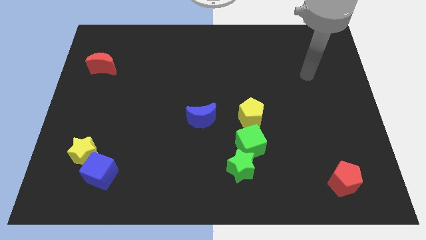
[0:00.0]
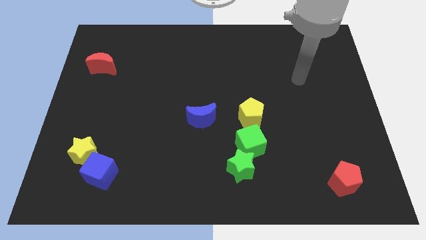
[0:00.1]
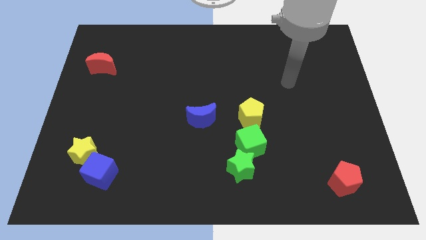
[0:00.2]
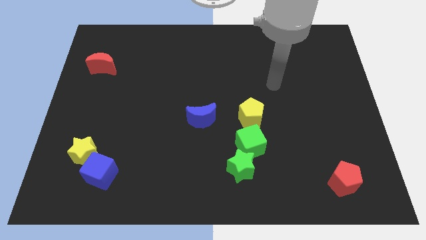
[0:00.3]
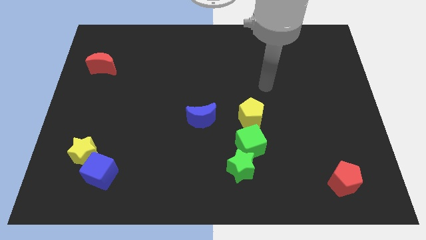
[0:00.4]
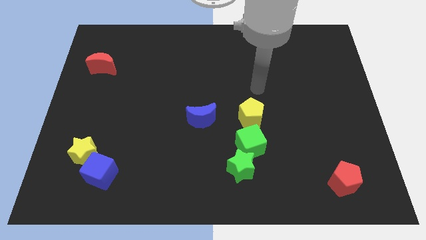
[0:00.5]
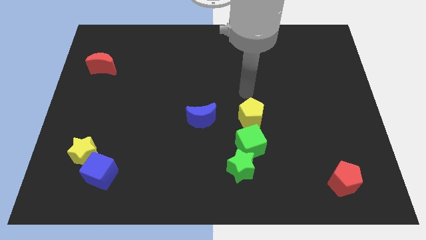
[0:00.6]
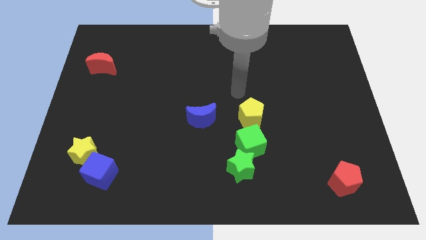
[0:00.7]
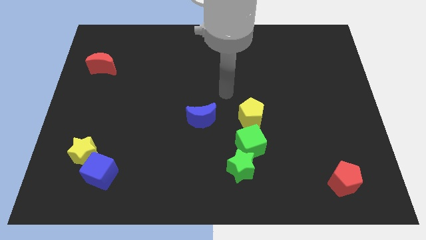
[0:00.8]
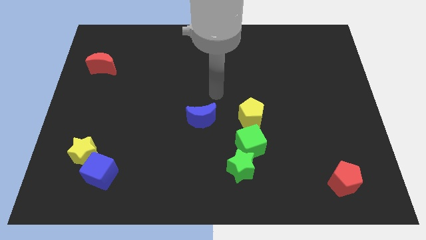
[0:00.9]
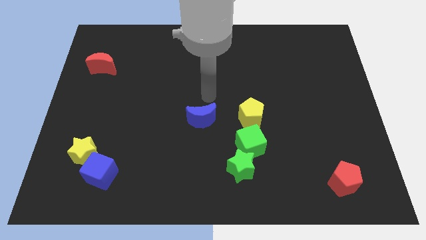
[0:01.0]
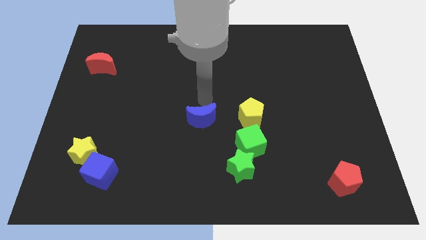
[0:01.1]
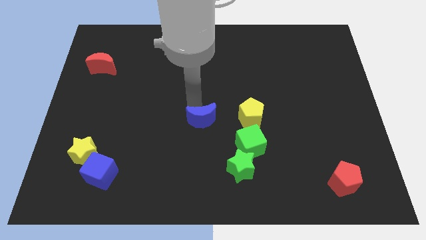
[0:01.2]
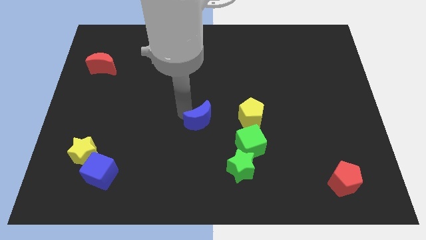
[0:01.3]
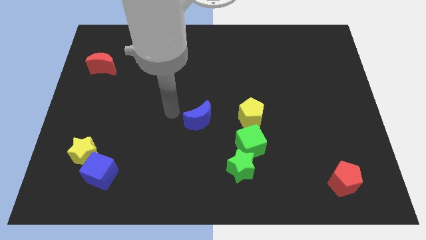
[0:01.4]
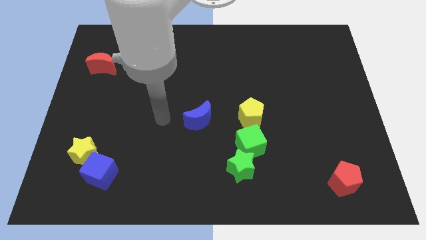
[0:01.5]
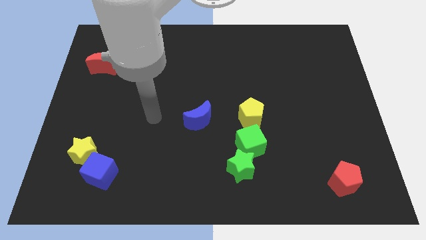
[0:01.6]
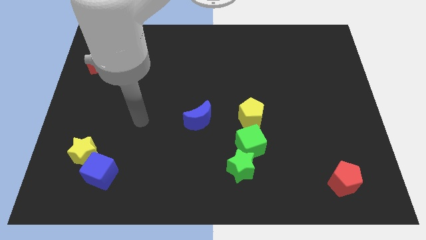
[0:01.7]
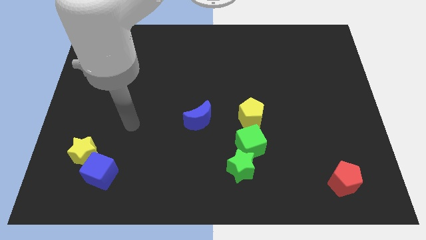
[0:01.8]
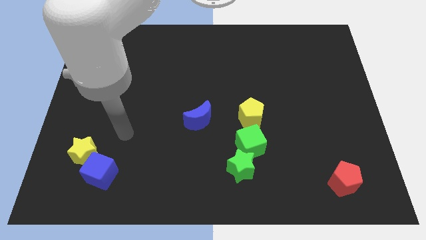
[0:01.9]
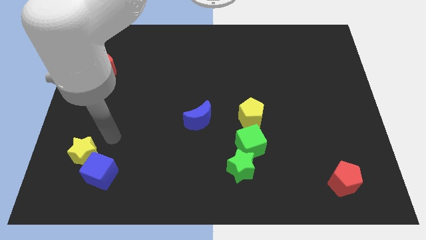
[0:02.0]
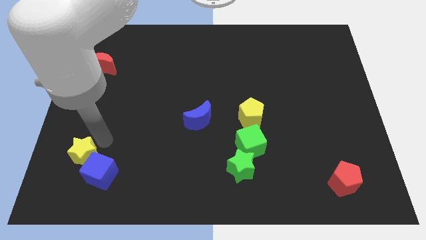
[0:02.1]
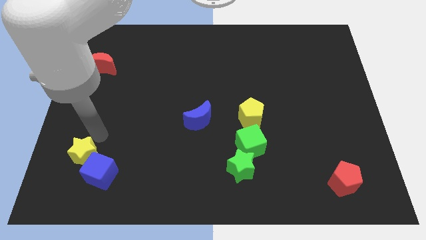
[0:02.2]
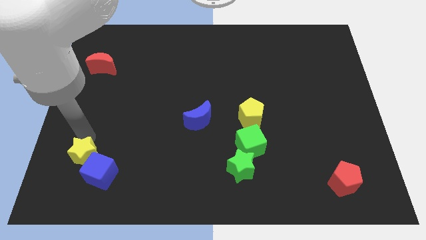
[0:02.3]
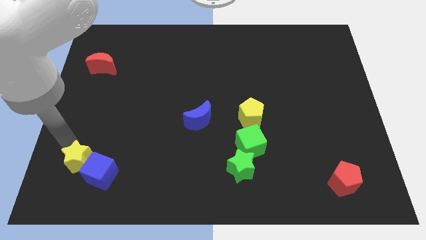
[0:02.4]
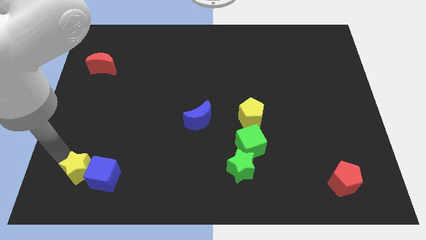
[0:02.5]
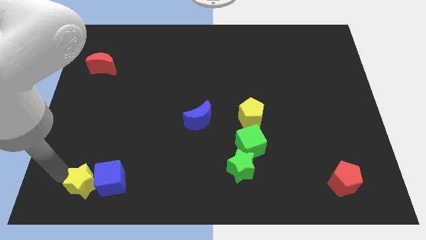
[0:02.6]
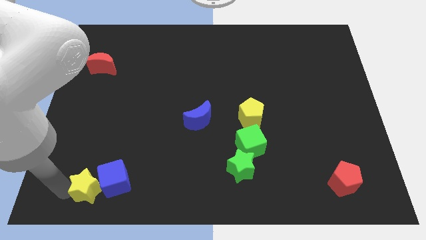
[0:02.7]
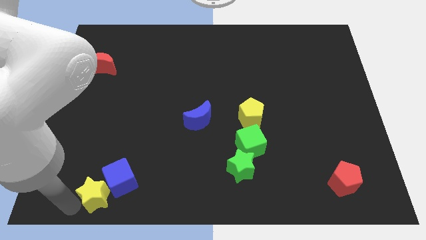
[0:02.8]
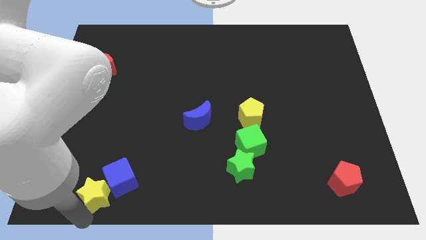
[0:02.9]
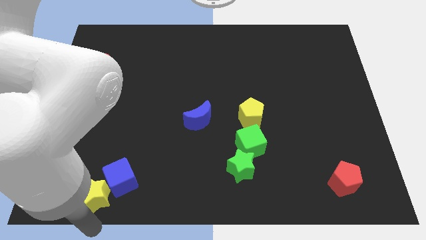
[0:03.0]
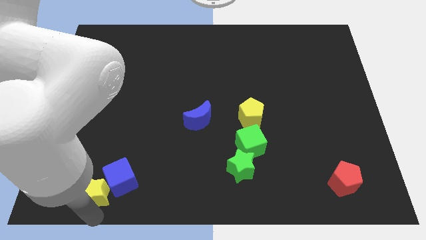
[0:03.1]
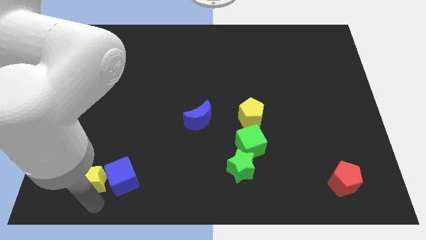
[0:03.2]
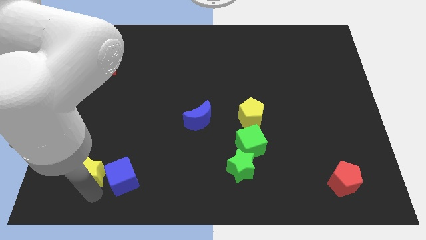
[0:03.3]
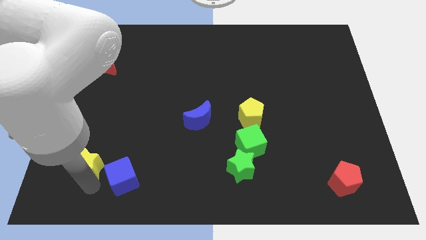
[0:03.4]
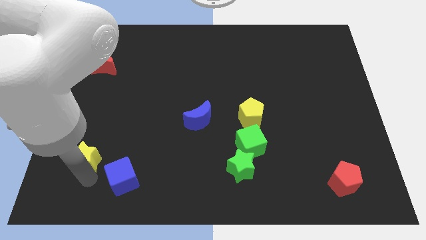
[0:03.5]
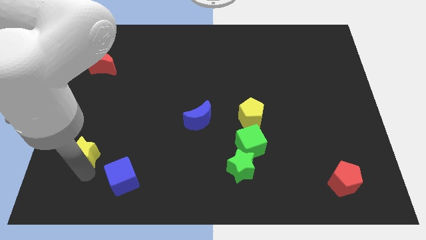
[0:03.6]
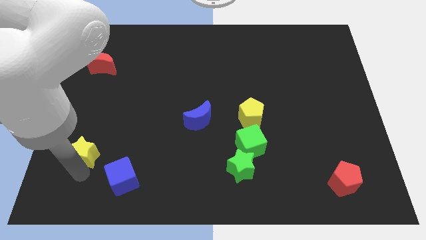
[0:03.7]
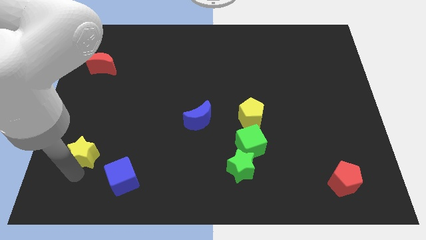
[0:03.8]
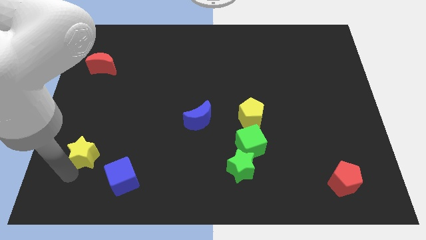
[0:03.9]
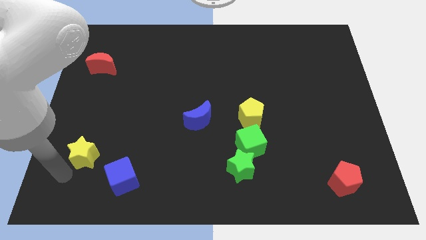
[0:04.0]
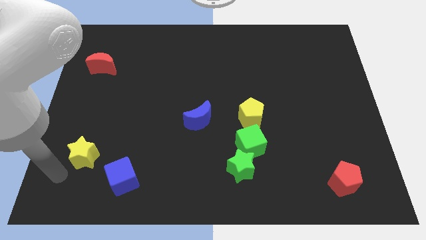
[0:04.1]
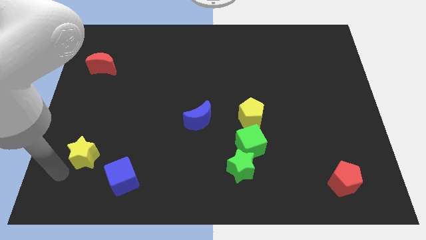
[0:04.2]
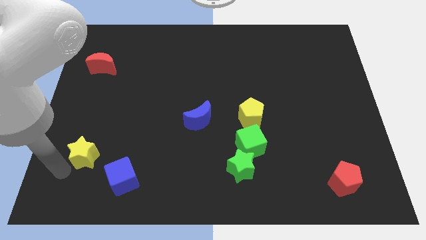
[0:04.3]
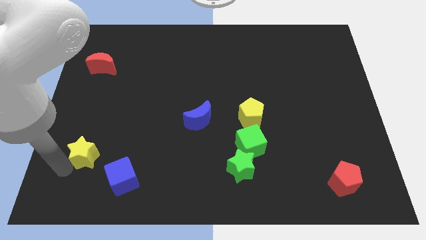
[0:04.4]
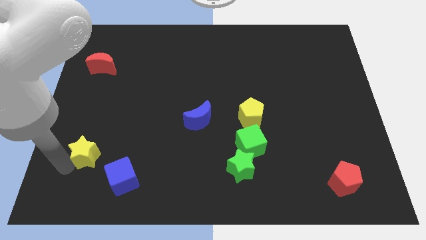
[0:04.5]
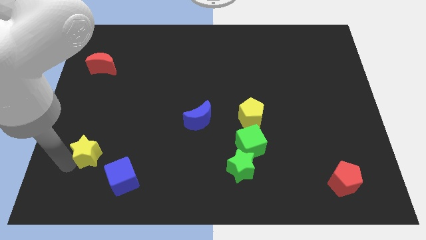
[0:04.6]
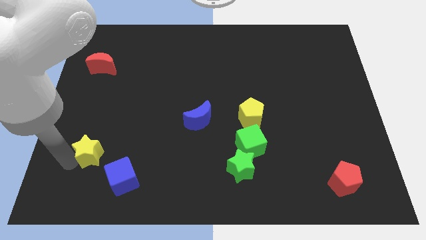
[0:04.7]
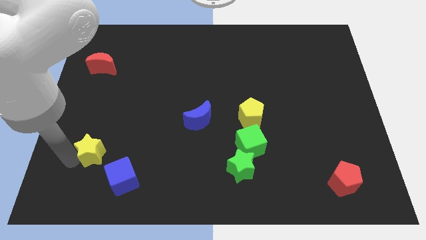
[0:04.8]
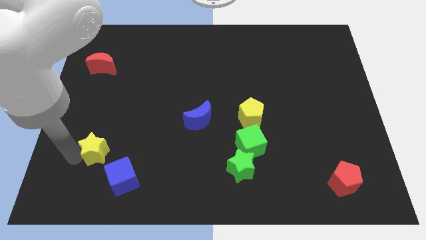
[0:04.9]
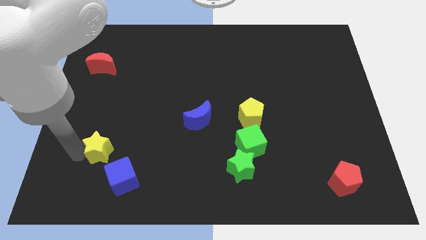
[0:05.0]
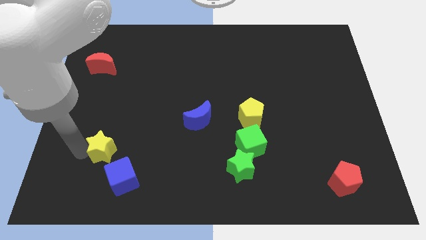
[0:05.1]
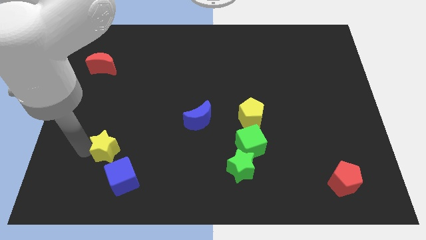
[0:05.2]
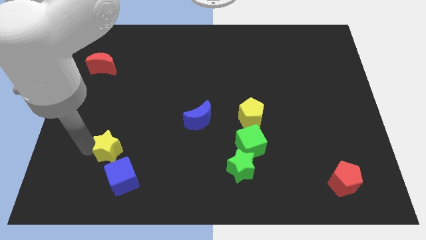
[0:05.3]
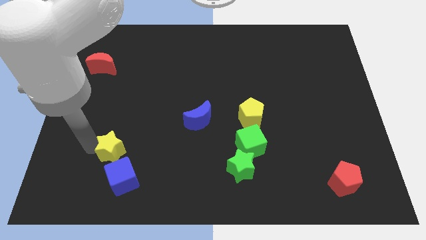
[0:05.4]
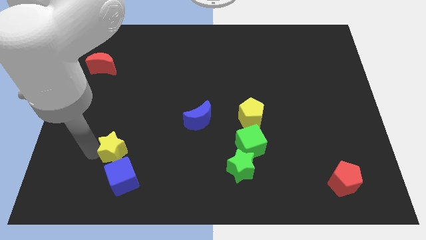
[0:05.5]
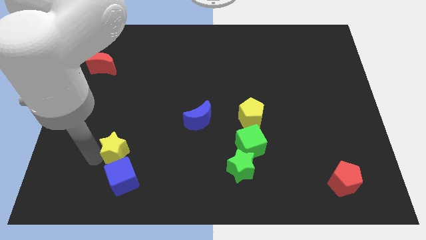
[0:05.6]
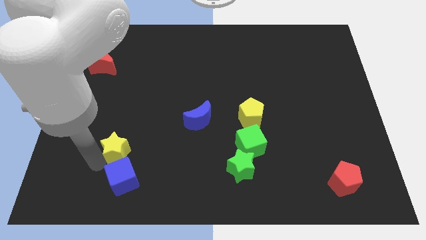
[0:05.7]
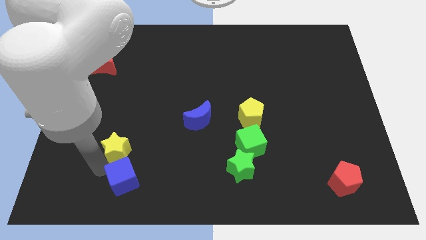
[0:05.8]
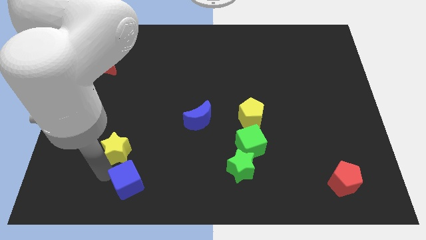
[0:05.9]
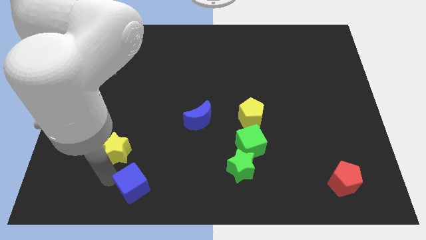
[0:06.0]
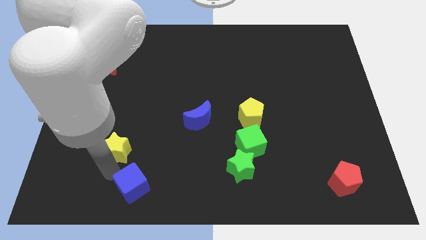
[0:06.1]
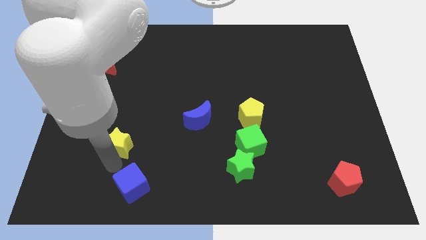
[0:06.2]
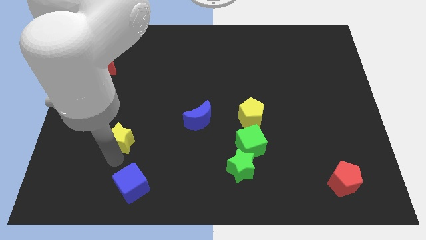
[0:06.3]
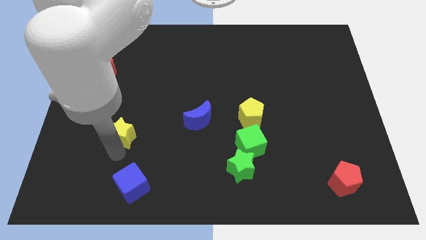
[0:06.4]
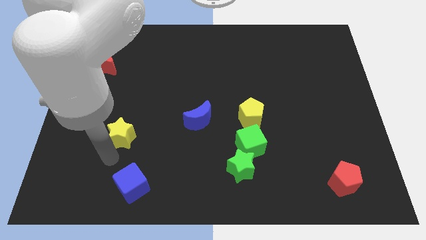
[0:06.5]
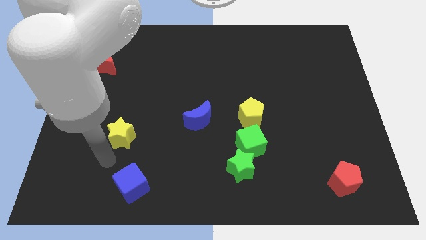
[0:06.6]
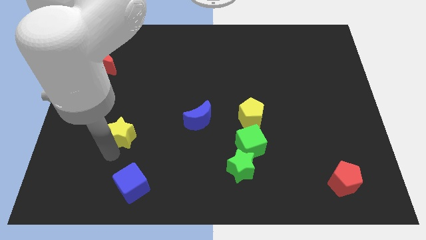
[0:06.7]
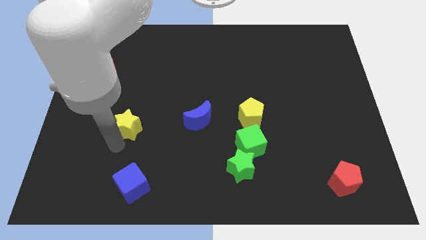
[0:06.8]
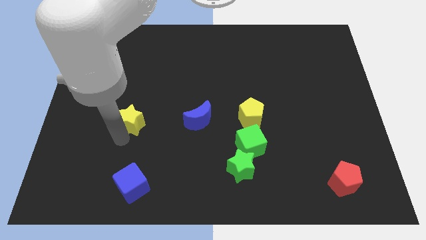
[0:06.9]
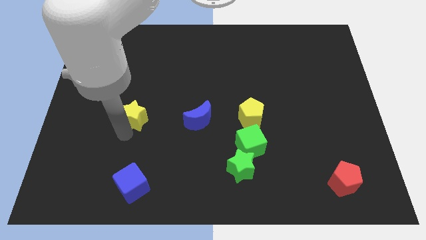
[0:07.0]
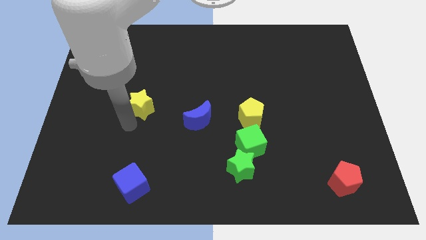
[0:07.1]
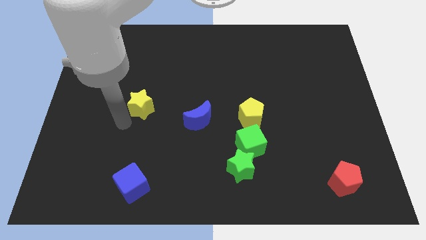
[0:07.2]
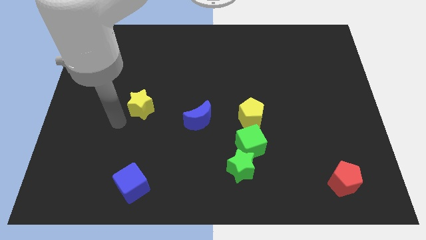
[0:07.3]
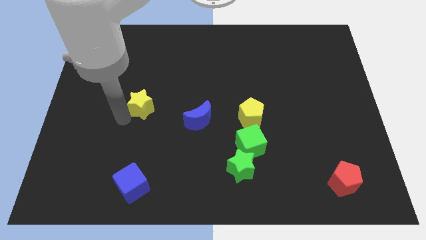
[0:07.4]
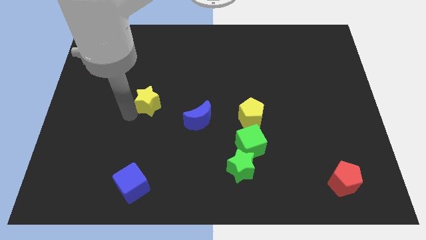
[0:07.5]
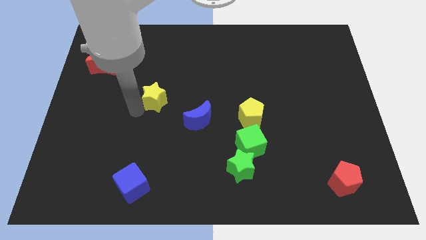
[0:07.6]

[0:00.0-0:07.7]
move the yellow star upwards and to the right
